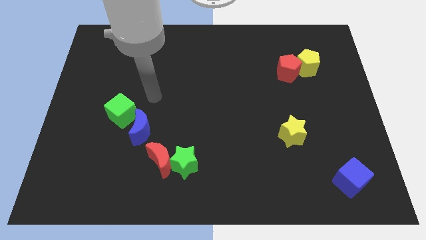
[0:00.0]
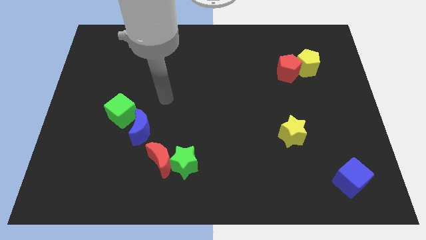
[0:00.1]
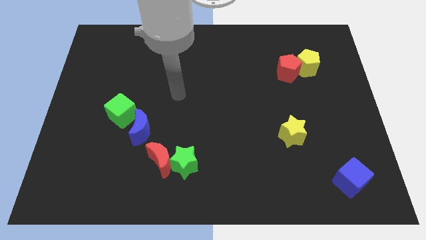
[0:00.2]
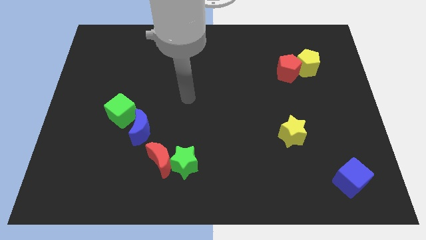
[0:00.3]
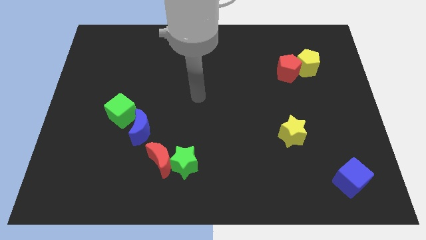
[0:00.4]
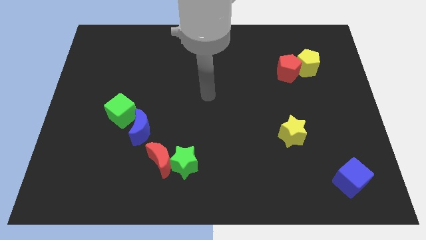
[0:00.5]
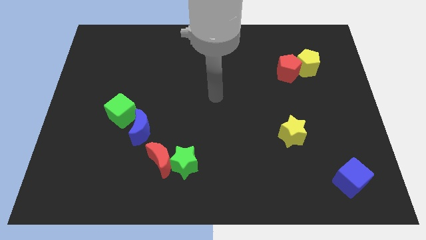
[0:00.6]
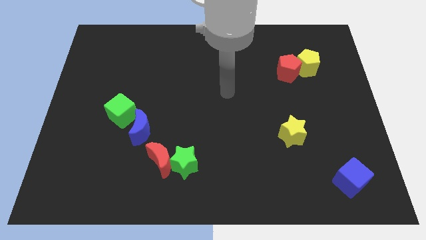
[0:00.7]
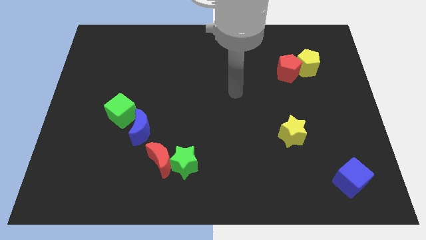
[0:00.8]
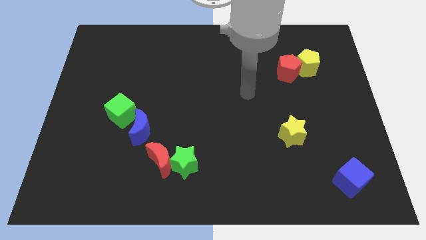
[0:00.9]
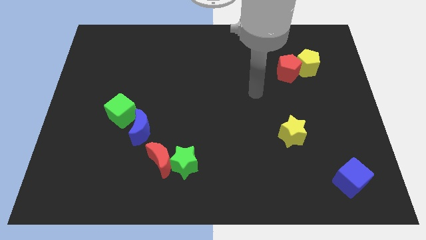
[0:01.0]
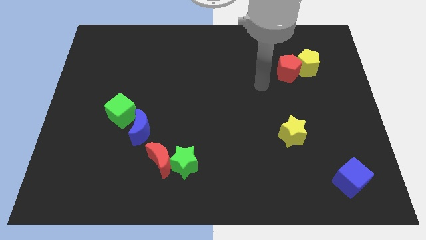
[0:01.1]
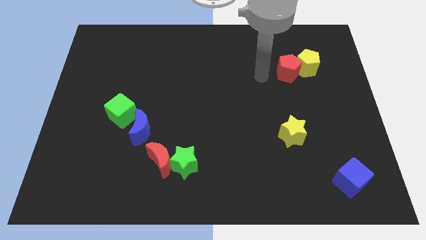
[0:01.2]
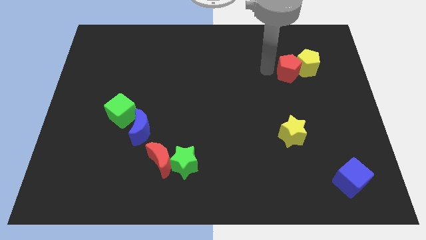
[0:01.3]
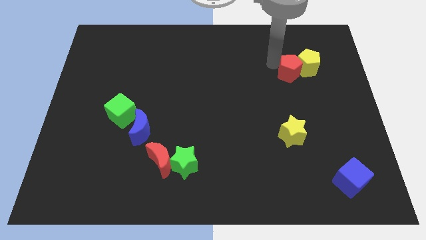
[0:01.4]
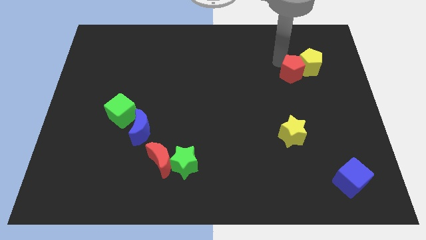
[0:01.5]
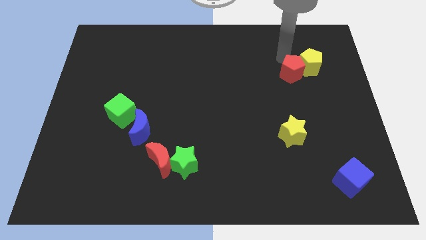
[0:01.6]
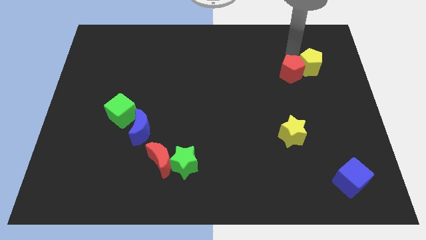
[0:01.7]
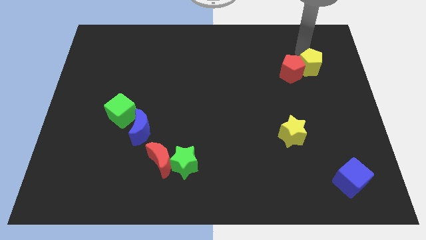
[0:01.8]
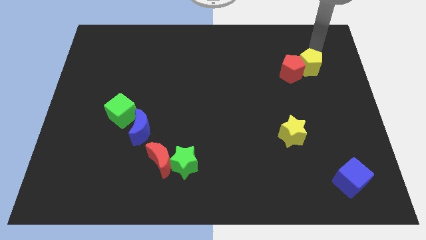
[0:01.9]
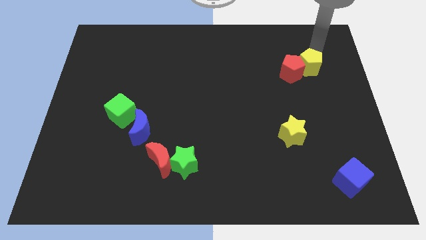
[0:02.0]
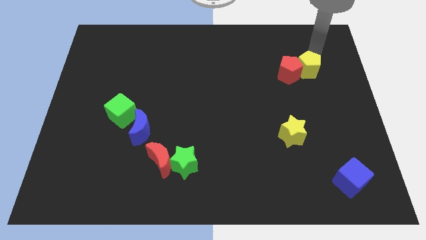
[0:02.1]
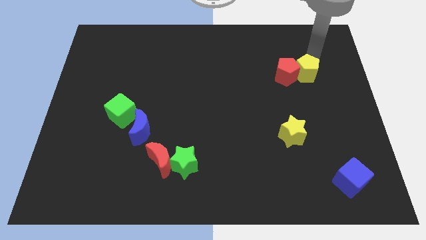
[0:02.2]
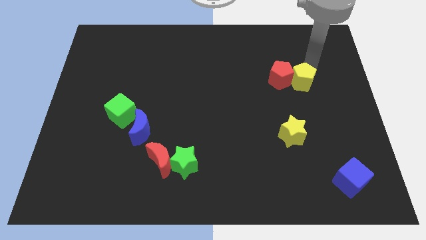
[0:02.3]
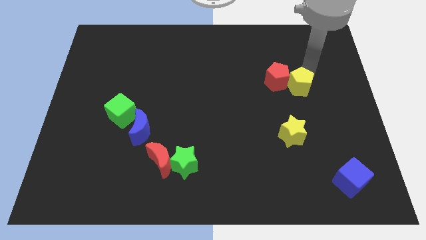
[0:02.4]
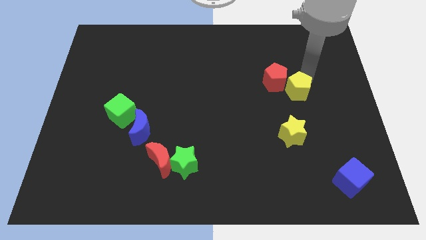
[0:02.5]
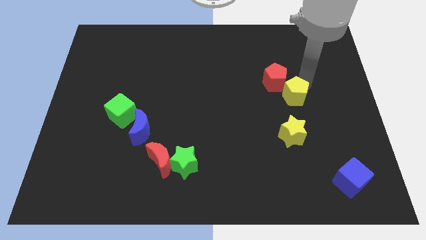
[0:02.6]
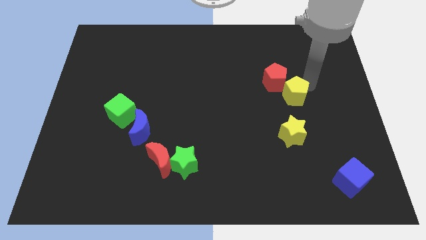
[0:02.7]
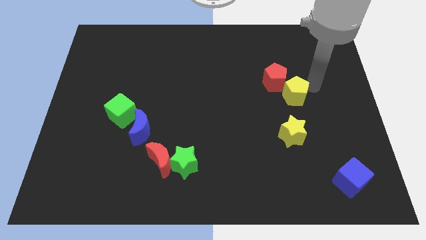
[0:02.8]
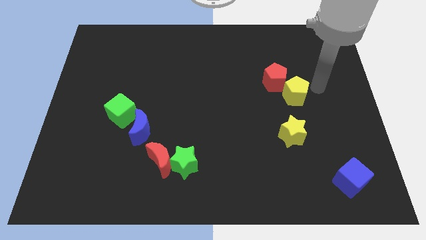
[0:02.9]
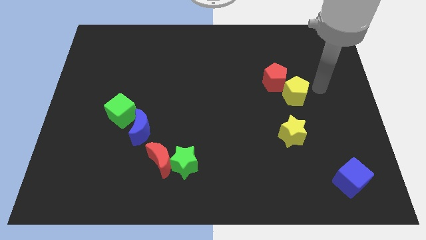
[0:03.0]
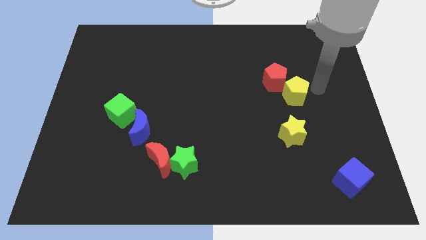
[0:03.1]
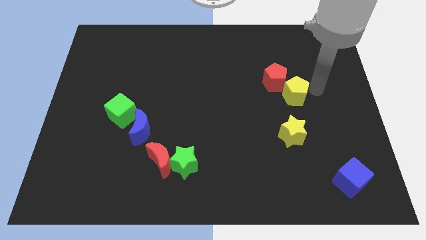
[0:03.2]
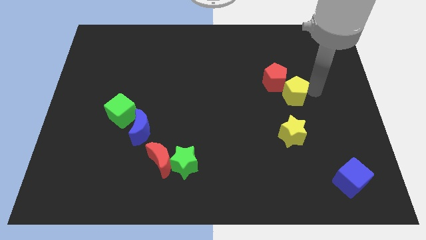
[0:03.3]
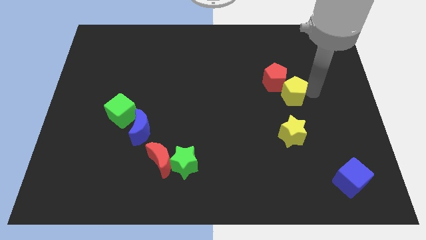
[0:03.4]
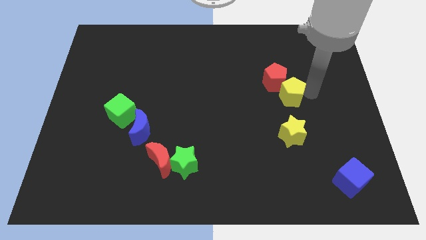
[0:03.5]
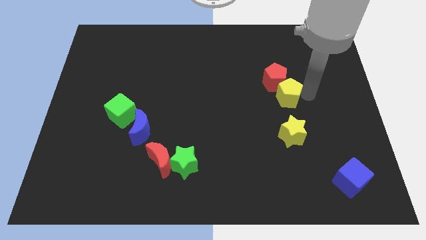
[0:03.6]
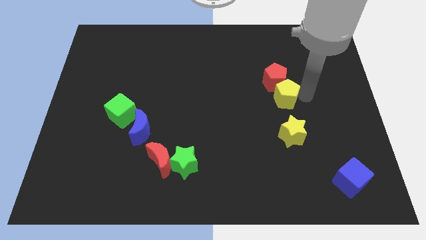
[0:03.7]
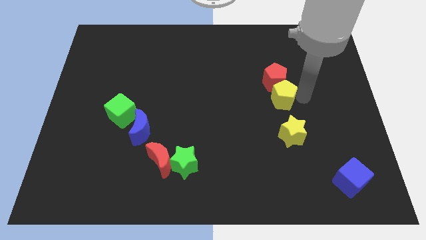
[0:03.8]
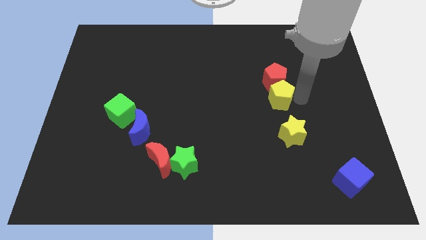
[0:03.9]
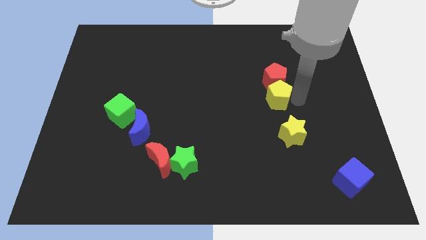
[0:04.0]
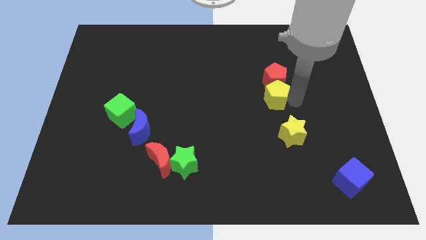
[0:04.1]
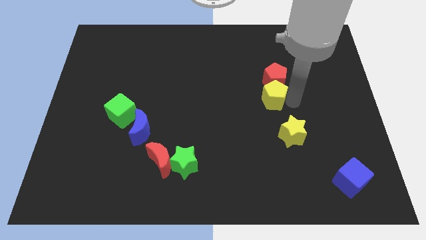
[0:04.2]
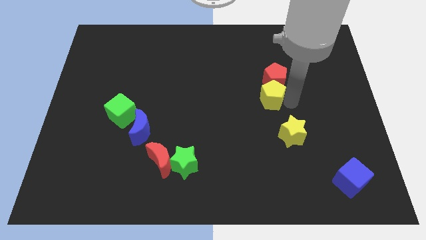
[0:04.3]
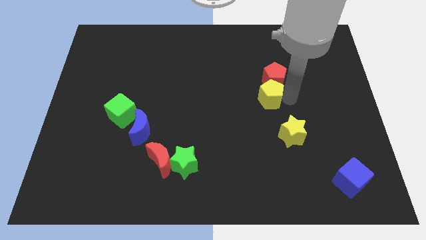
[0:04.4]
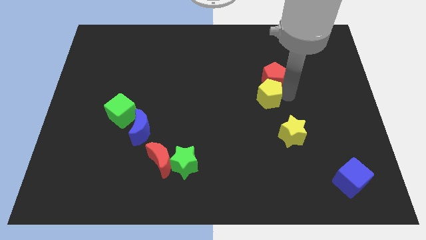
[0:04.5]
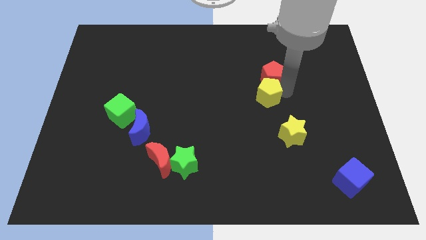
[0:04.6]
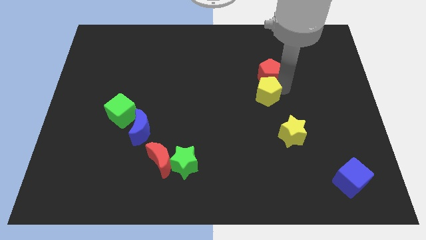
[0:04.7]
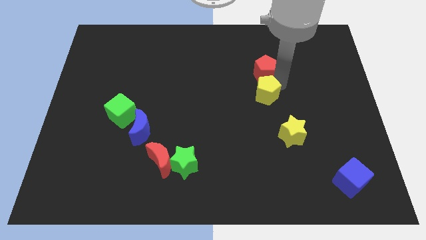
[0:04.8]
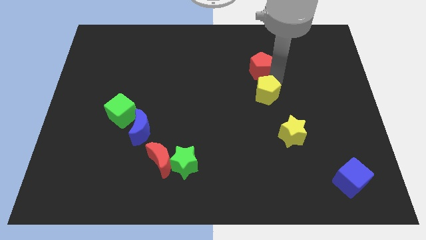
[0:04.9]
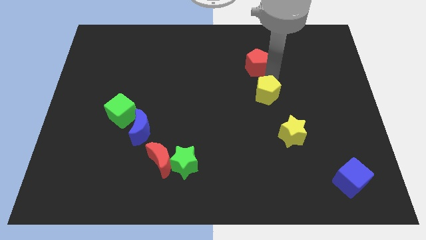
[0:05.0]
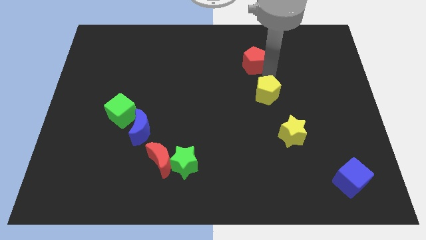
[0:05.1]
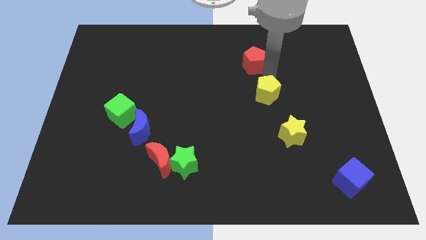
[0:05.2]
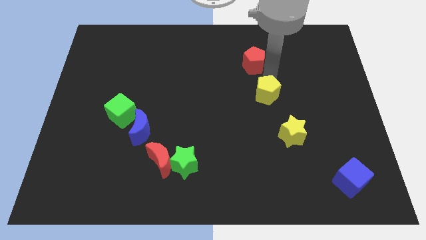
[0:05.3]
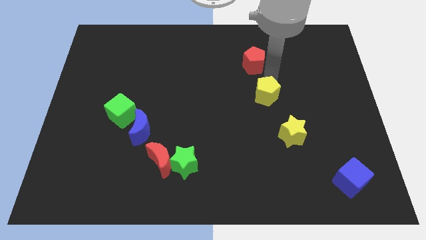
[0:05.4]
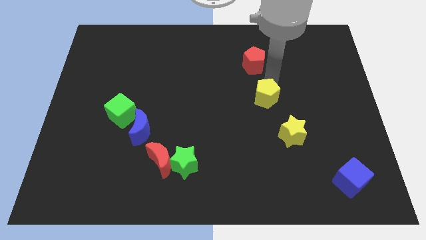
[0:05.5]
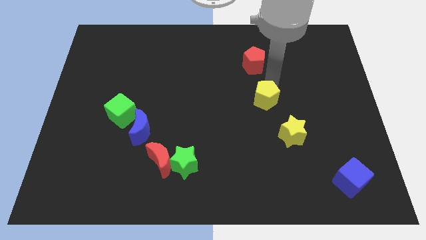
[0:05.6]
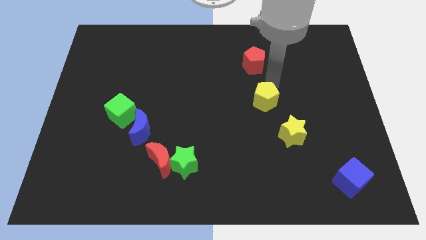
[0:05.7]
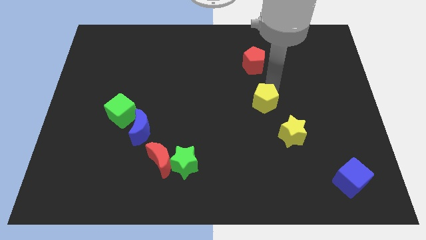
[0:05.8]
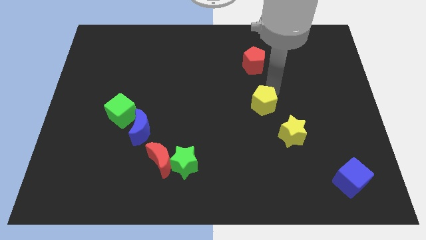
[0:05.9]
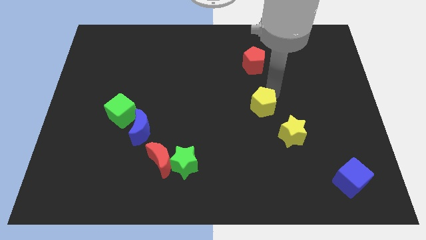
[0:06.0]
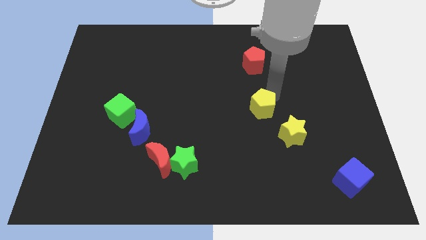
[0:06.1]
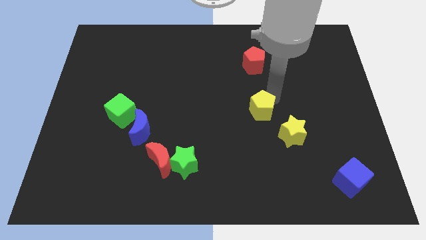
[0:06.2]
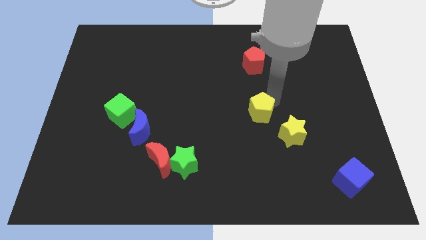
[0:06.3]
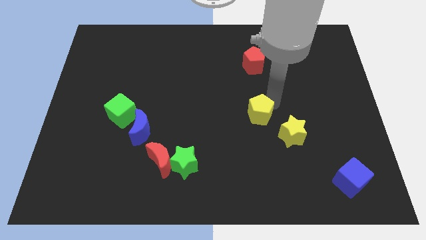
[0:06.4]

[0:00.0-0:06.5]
slide the yellow pentagon downwards and left

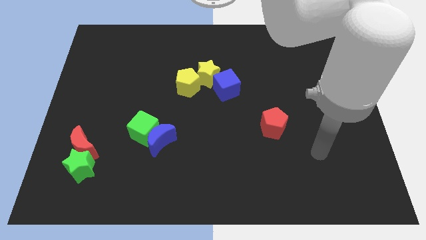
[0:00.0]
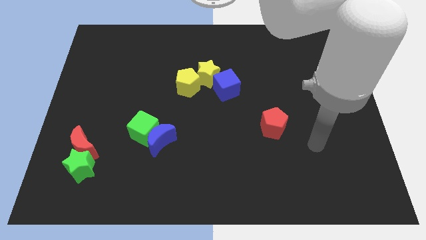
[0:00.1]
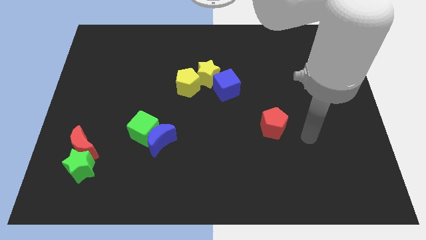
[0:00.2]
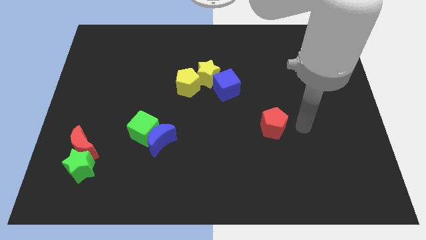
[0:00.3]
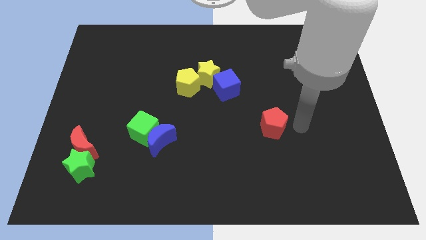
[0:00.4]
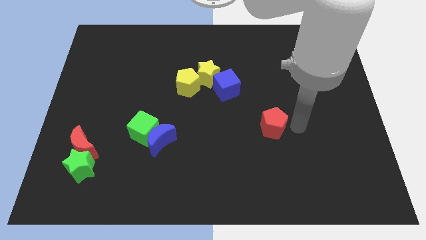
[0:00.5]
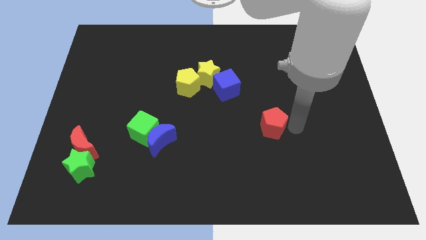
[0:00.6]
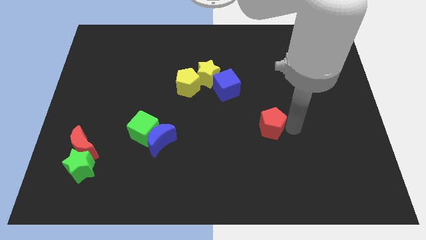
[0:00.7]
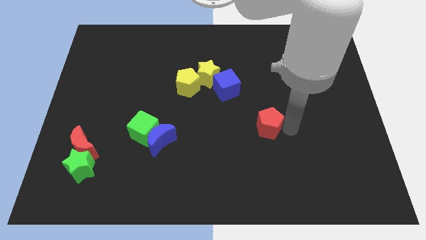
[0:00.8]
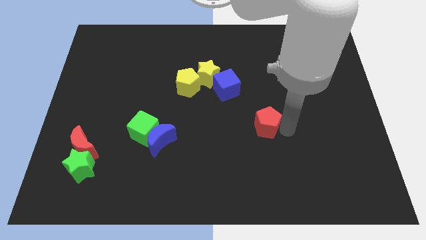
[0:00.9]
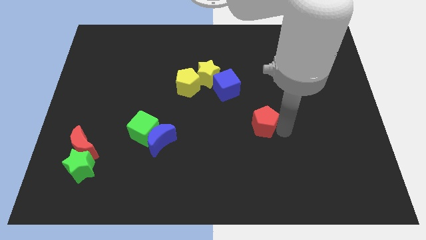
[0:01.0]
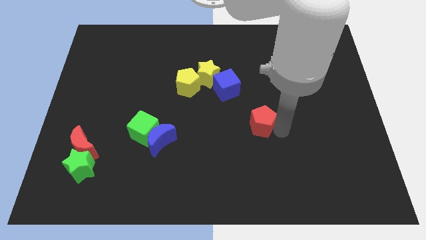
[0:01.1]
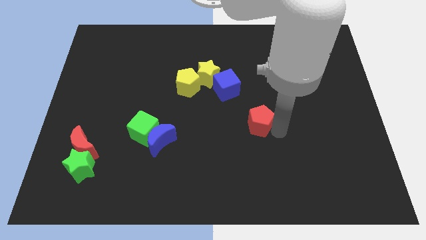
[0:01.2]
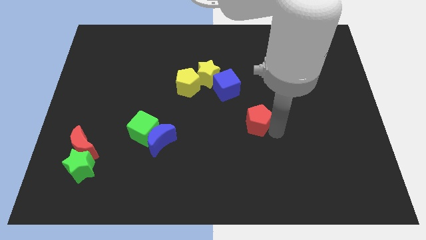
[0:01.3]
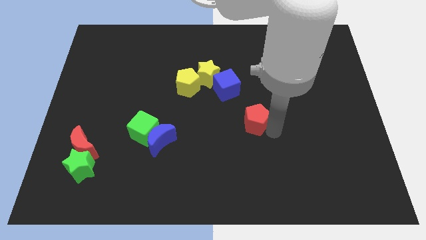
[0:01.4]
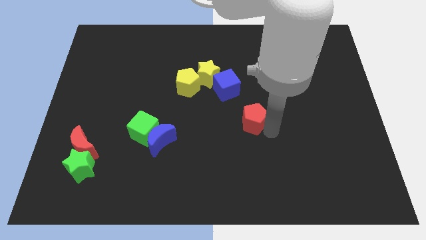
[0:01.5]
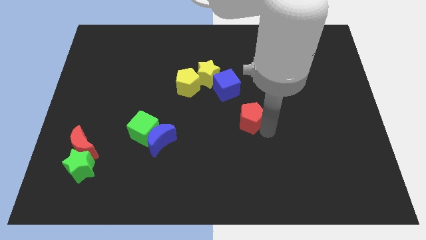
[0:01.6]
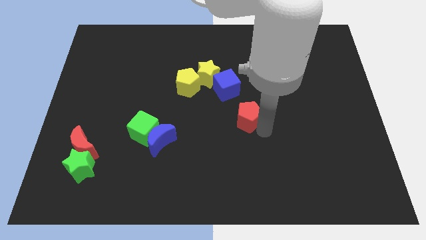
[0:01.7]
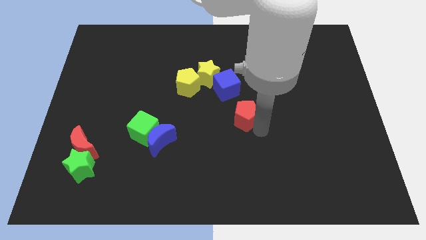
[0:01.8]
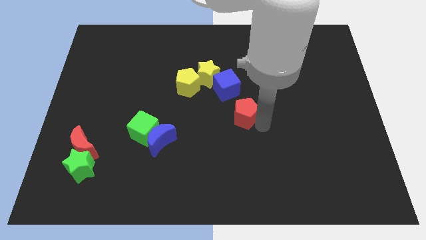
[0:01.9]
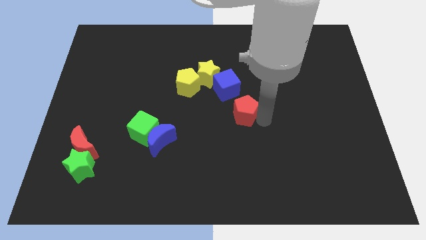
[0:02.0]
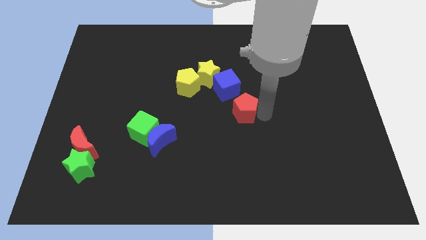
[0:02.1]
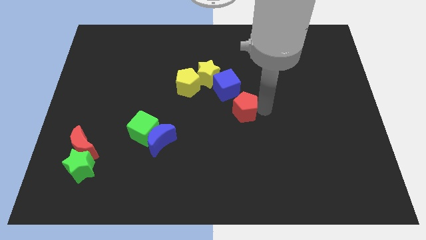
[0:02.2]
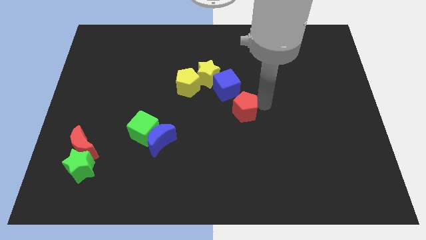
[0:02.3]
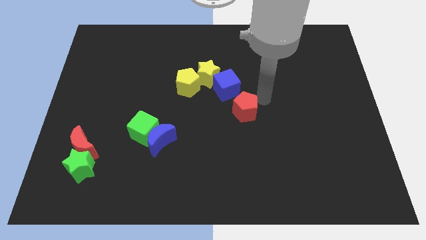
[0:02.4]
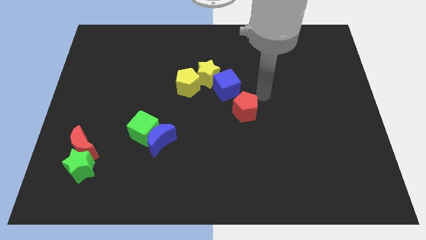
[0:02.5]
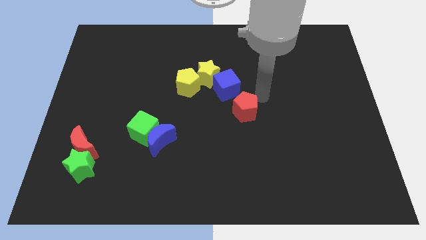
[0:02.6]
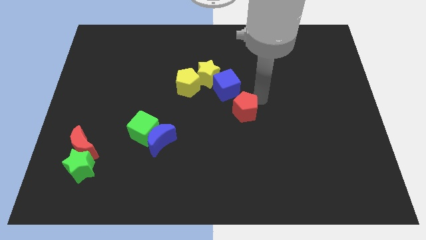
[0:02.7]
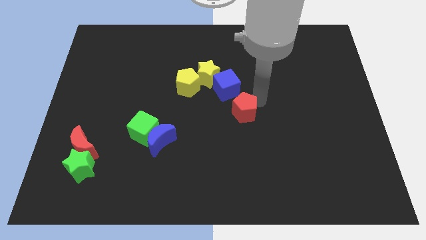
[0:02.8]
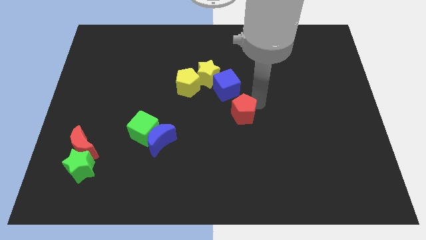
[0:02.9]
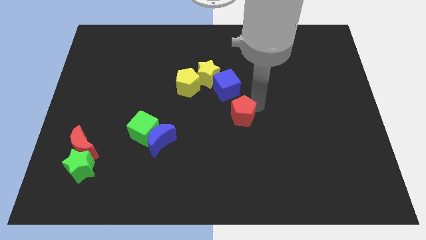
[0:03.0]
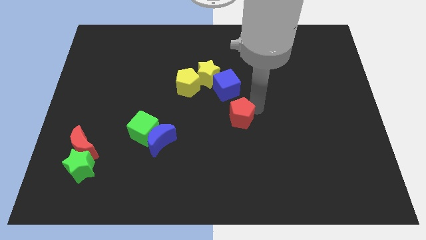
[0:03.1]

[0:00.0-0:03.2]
slide the red pentagon to the left a little
